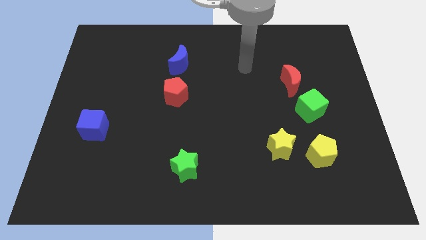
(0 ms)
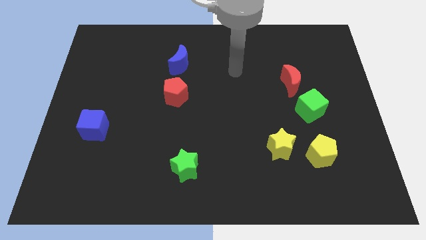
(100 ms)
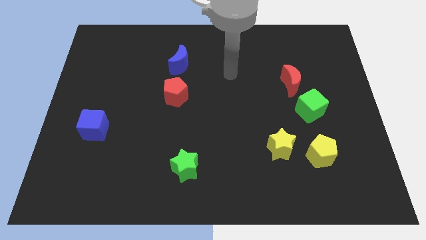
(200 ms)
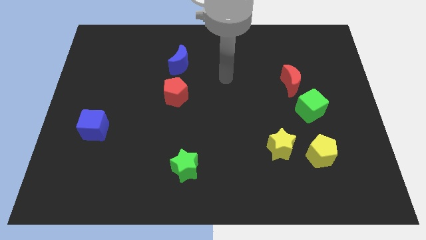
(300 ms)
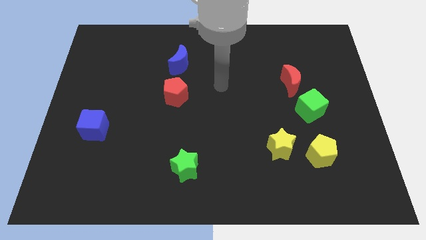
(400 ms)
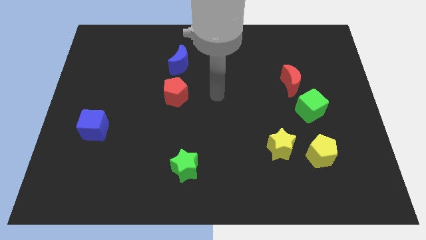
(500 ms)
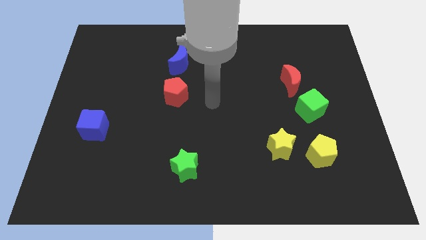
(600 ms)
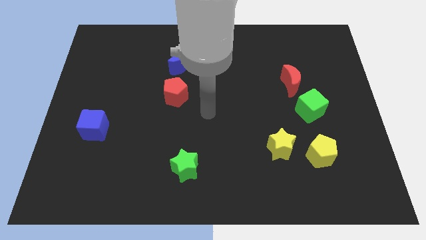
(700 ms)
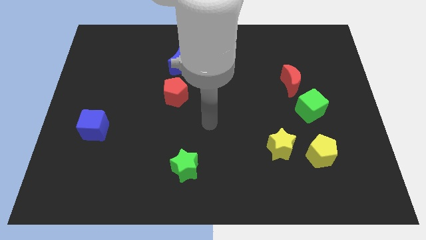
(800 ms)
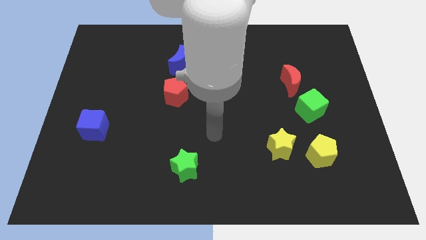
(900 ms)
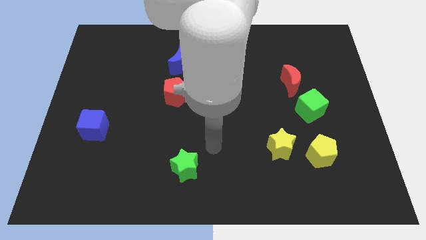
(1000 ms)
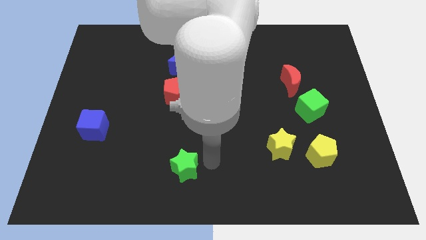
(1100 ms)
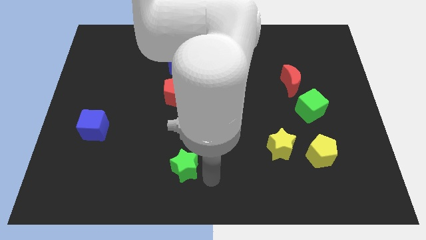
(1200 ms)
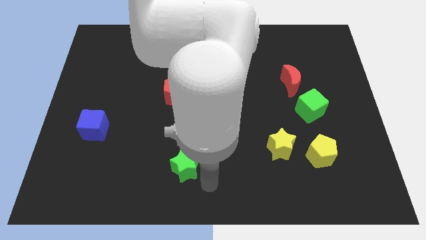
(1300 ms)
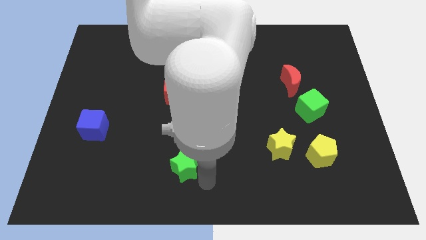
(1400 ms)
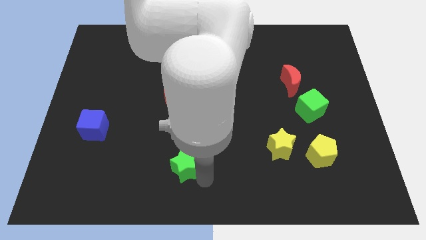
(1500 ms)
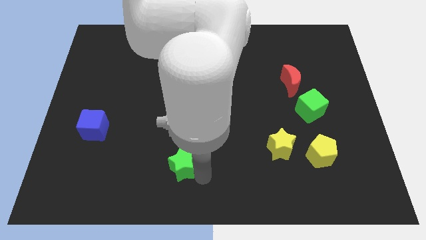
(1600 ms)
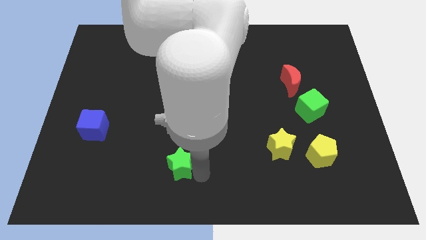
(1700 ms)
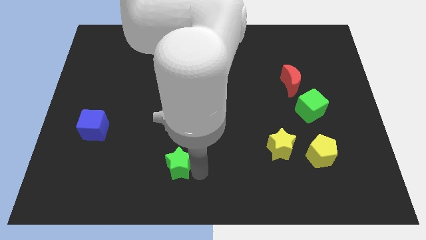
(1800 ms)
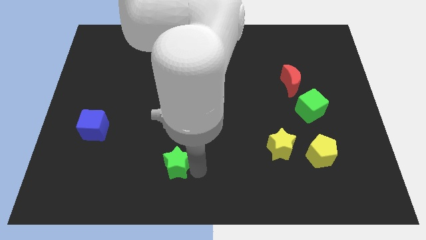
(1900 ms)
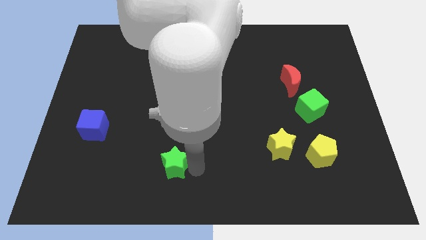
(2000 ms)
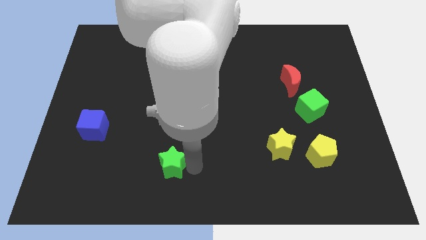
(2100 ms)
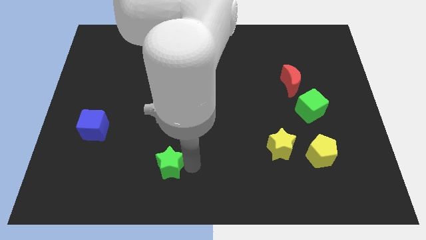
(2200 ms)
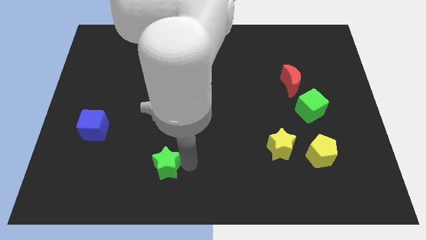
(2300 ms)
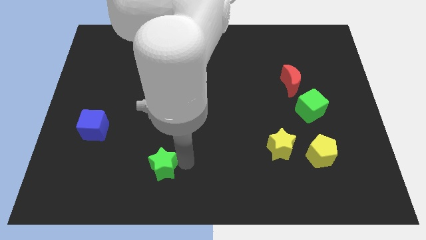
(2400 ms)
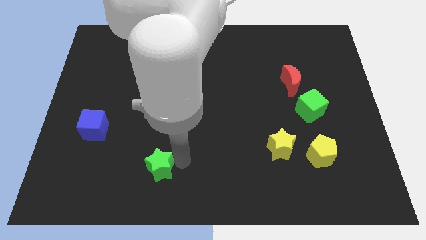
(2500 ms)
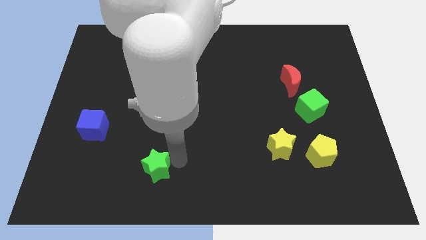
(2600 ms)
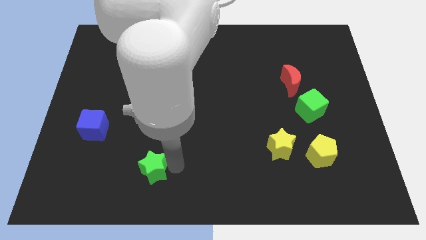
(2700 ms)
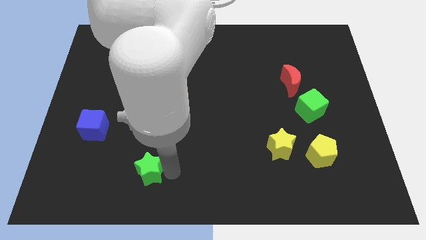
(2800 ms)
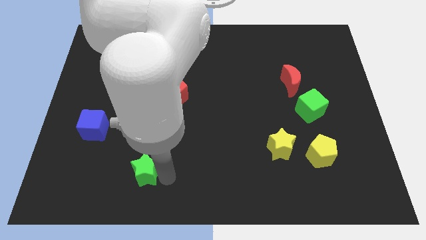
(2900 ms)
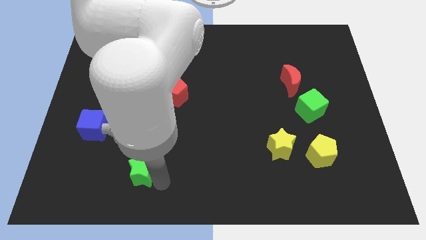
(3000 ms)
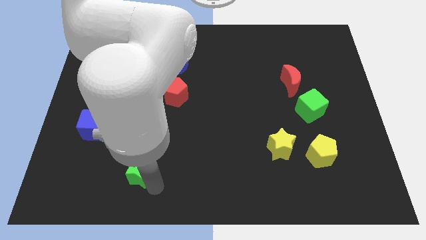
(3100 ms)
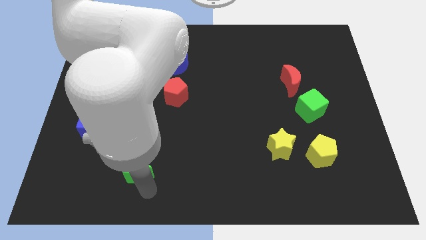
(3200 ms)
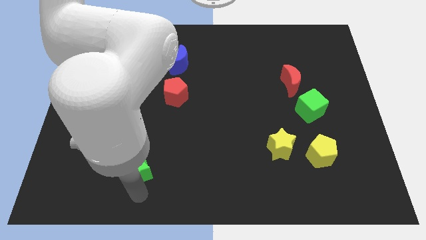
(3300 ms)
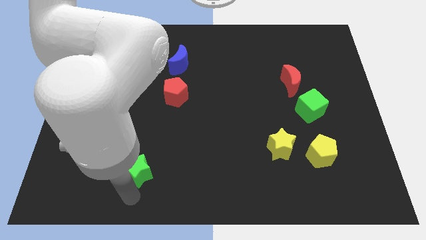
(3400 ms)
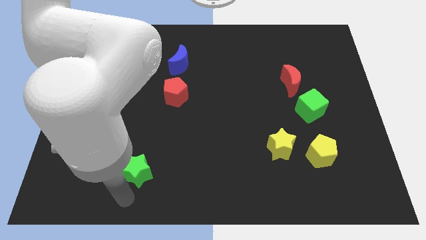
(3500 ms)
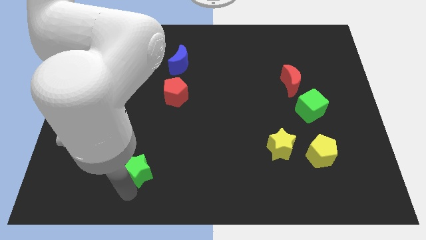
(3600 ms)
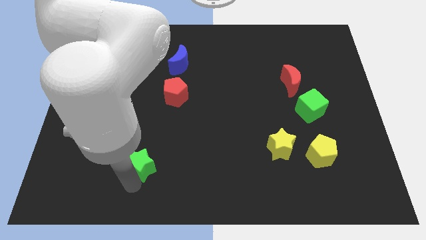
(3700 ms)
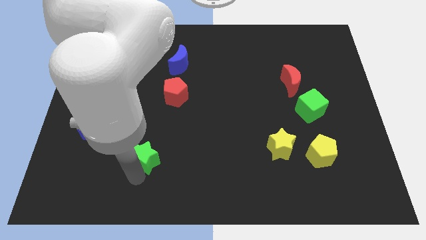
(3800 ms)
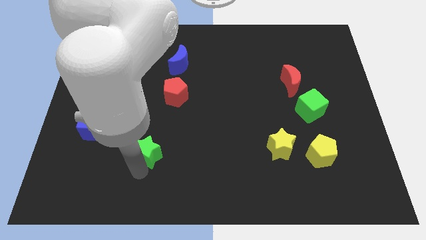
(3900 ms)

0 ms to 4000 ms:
slightly slide the green star diagonally upwards and to the left

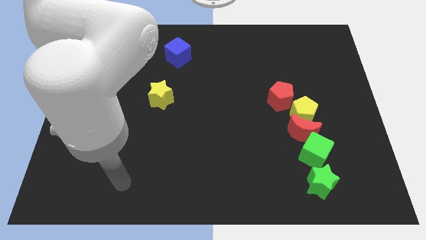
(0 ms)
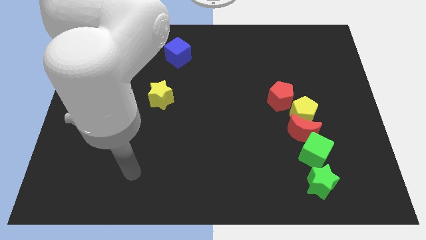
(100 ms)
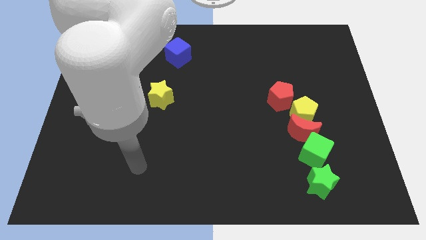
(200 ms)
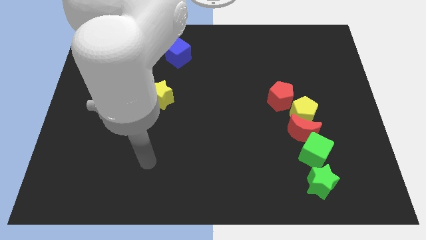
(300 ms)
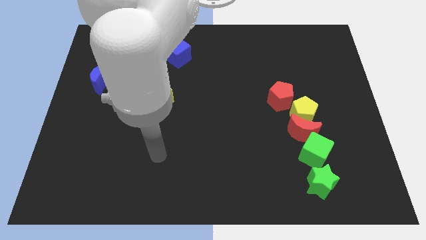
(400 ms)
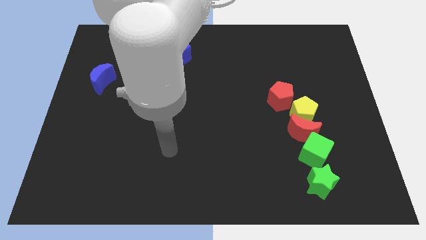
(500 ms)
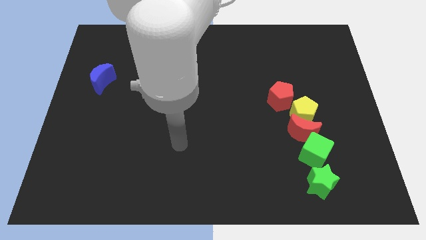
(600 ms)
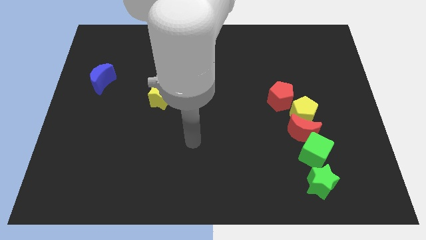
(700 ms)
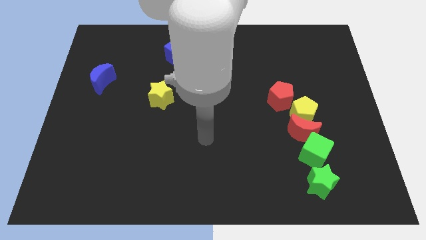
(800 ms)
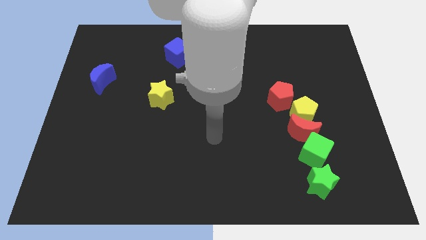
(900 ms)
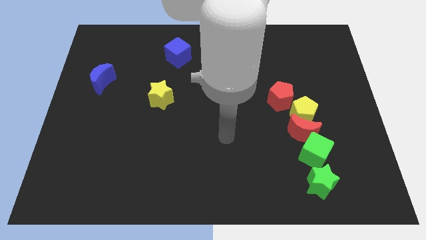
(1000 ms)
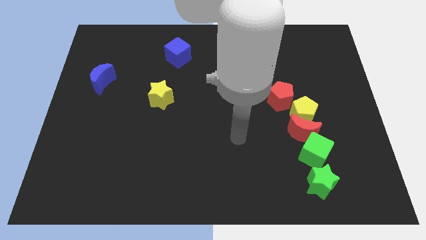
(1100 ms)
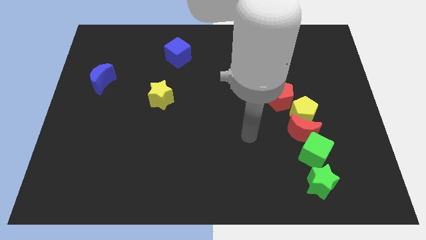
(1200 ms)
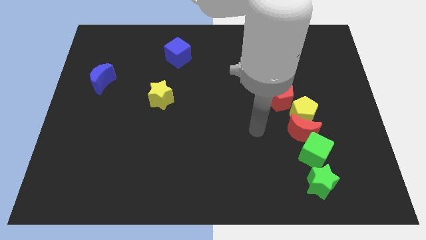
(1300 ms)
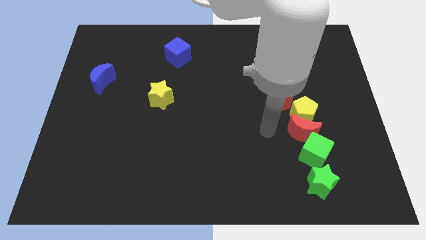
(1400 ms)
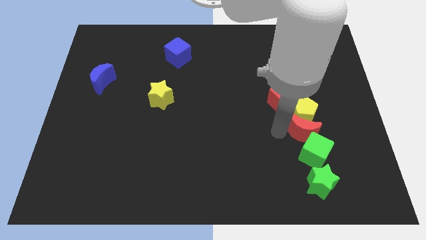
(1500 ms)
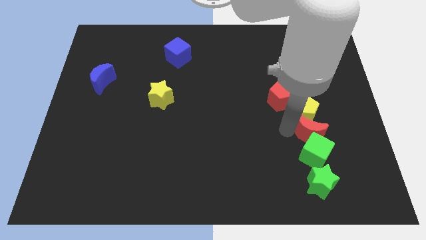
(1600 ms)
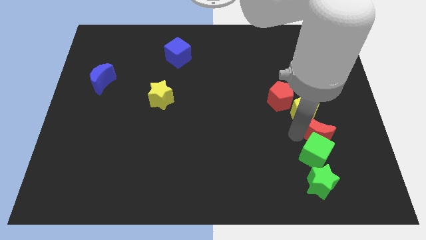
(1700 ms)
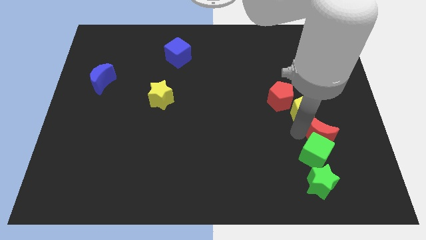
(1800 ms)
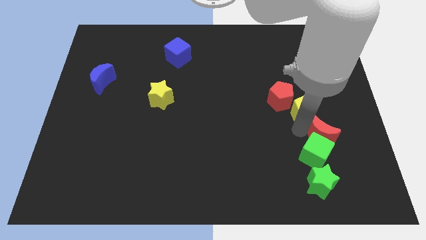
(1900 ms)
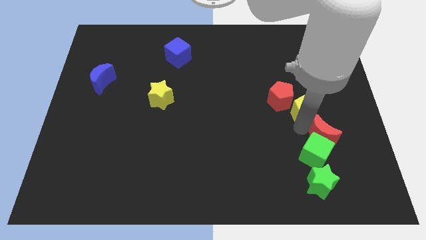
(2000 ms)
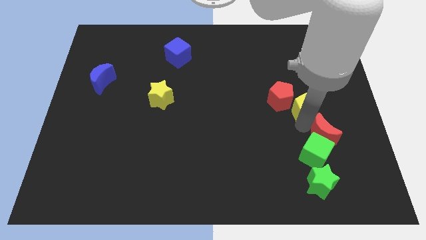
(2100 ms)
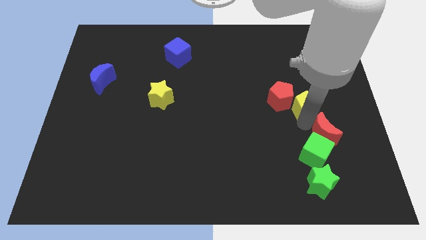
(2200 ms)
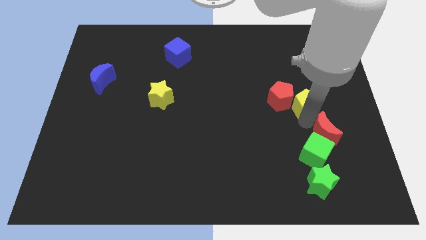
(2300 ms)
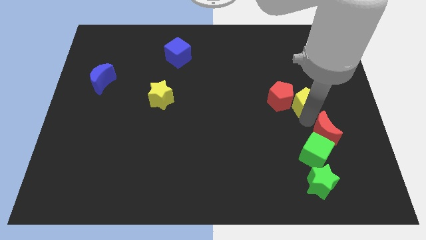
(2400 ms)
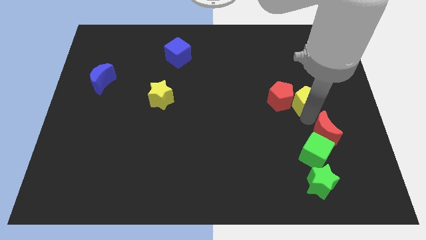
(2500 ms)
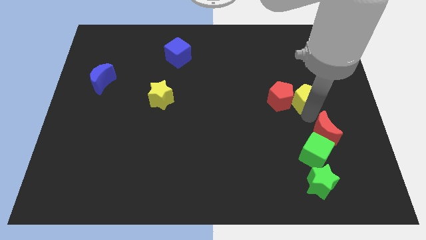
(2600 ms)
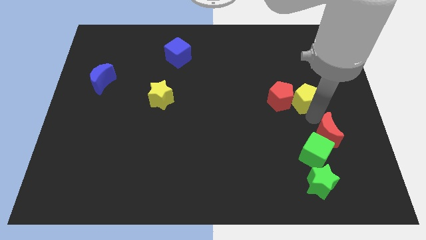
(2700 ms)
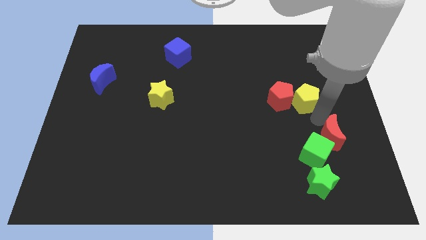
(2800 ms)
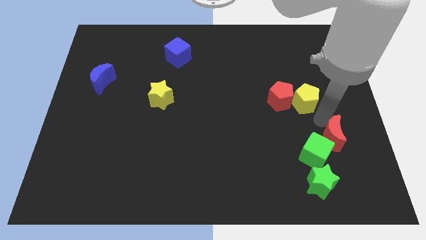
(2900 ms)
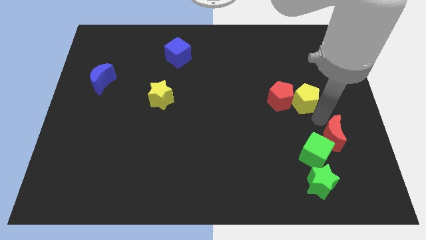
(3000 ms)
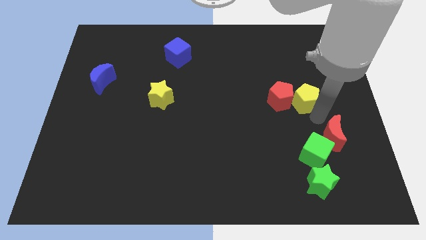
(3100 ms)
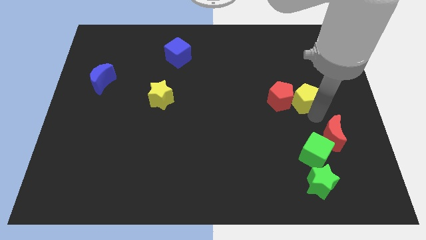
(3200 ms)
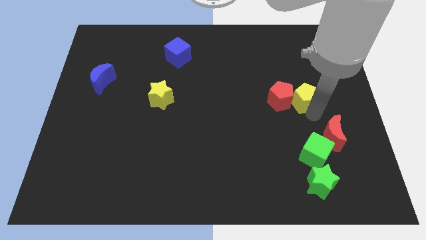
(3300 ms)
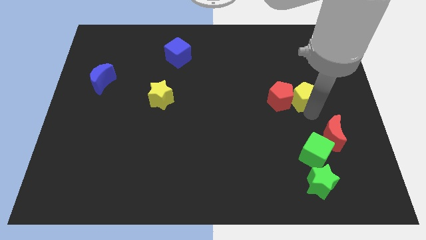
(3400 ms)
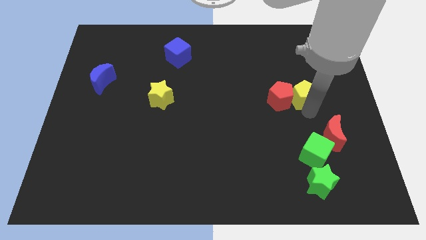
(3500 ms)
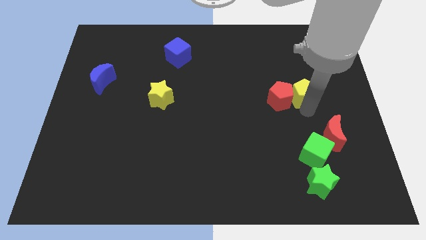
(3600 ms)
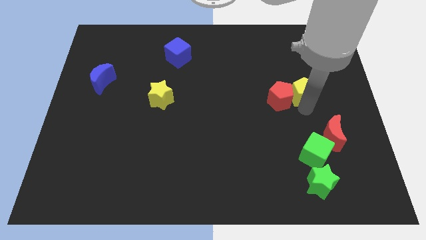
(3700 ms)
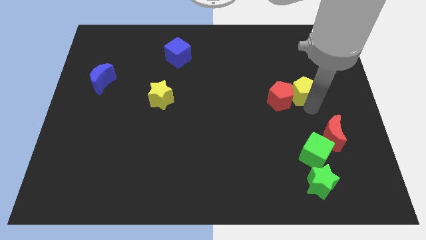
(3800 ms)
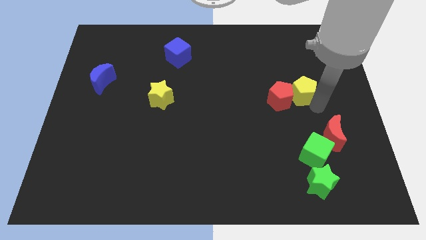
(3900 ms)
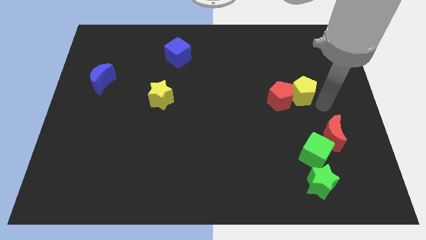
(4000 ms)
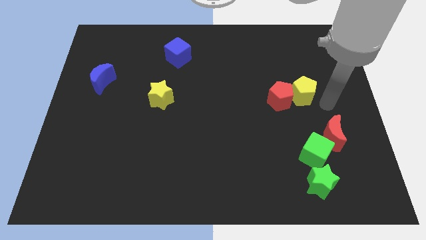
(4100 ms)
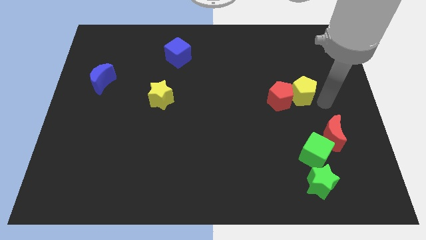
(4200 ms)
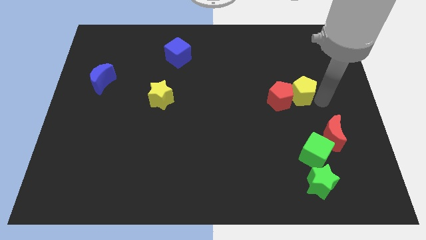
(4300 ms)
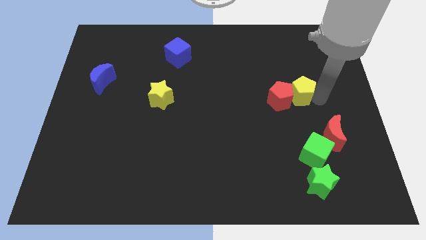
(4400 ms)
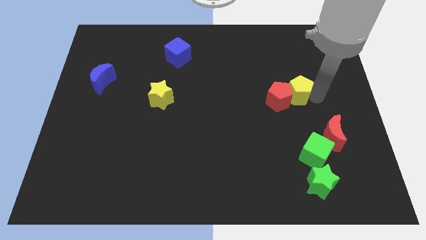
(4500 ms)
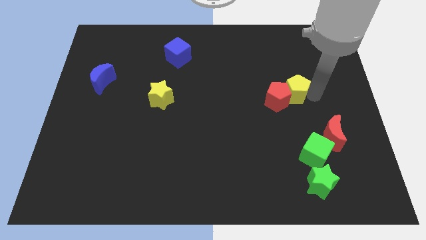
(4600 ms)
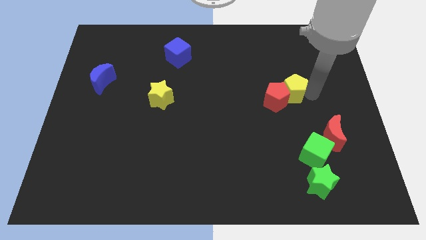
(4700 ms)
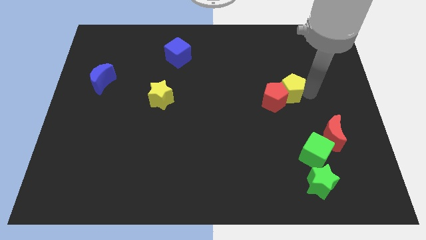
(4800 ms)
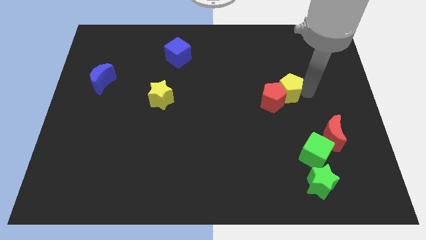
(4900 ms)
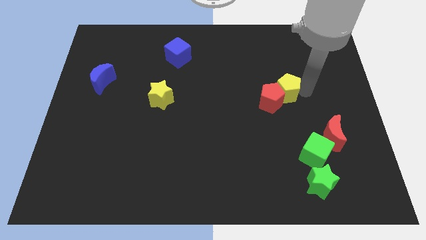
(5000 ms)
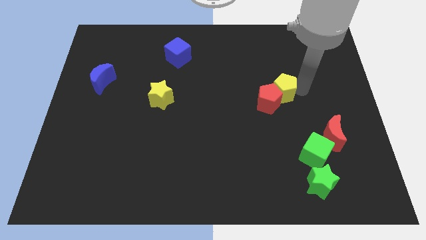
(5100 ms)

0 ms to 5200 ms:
slightly push the yellow pentagon up and then to the left
